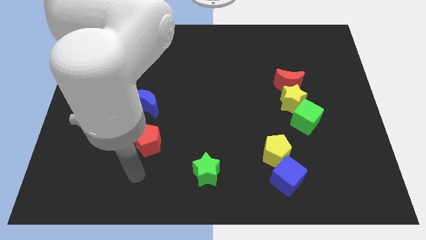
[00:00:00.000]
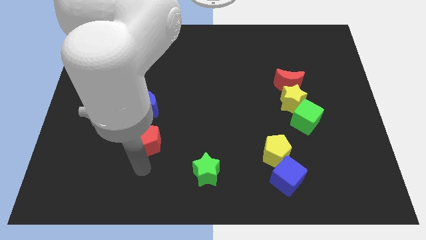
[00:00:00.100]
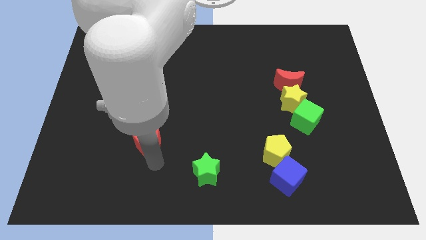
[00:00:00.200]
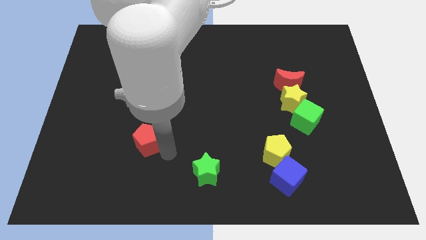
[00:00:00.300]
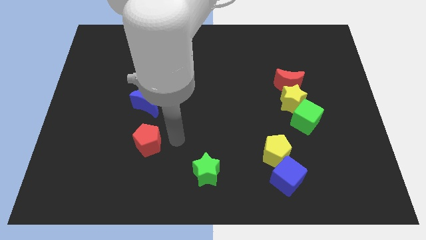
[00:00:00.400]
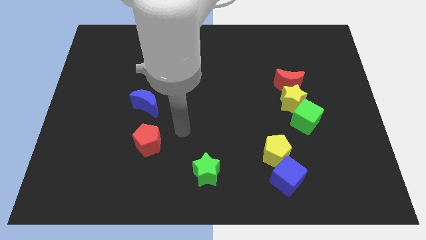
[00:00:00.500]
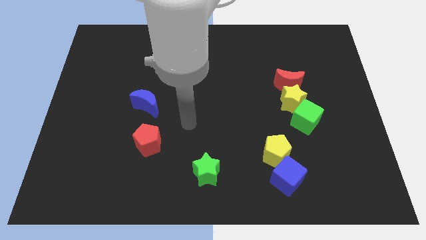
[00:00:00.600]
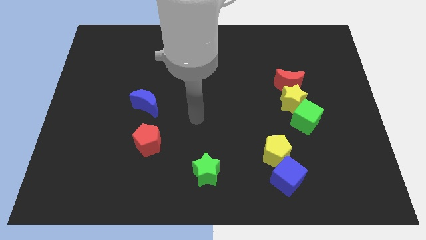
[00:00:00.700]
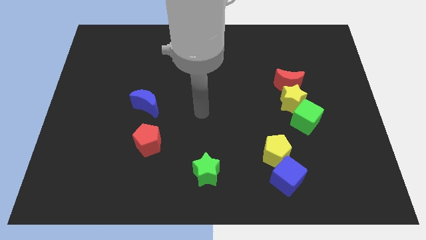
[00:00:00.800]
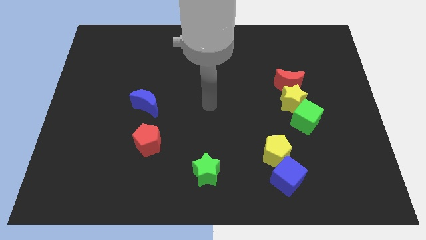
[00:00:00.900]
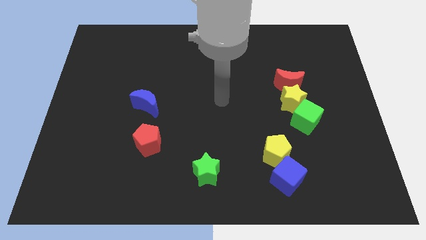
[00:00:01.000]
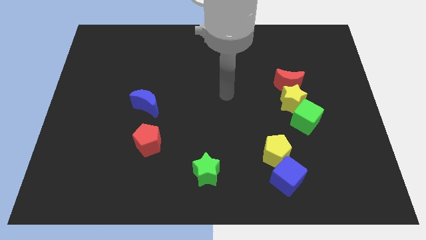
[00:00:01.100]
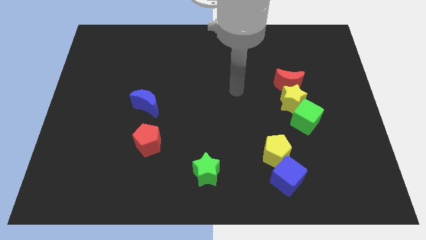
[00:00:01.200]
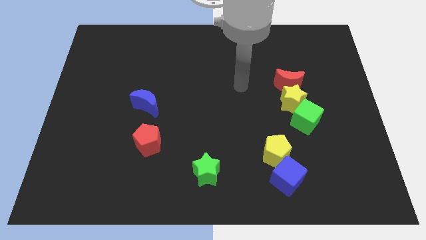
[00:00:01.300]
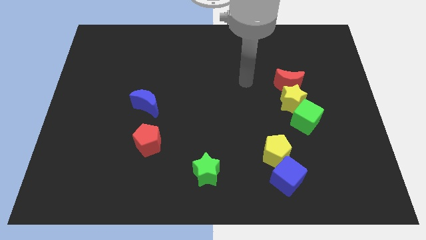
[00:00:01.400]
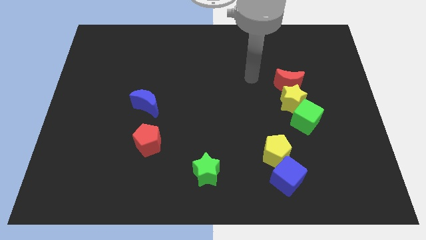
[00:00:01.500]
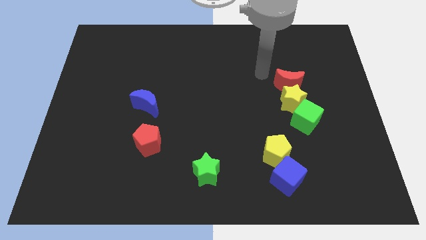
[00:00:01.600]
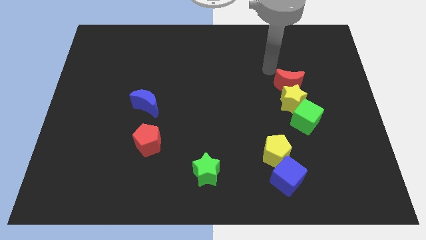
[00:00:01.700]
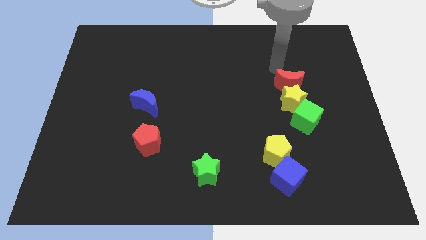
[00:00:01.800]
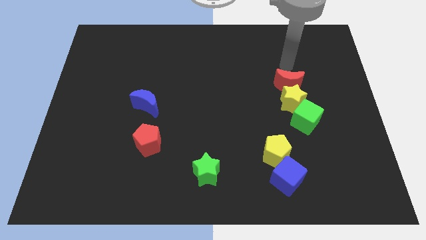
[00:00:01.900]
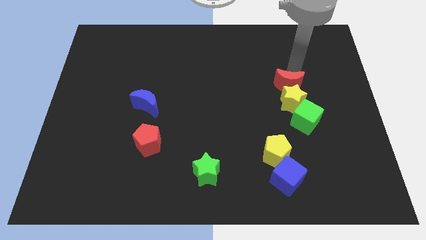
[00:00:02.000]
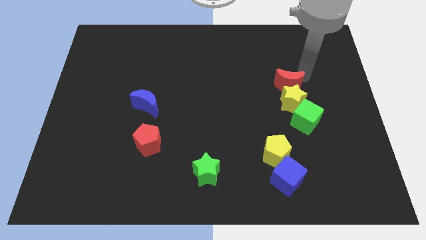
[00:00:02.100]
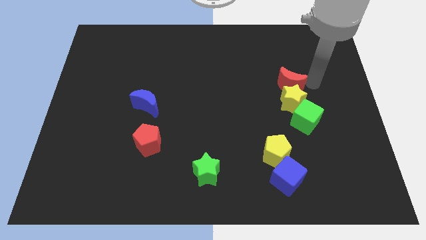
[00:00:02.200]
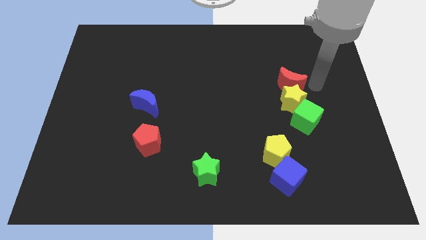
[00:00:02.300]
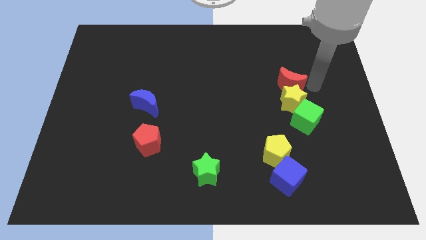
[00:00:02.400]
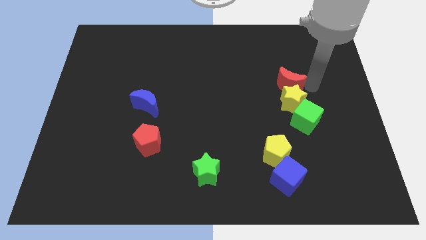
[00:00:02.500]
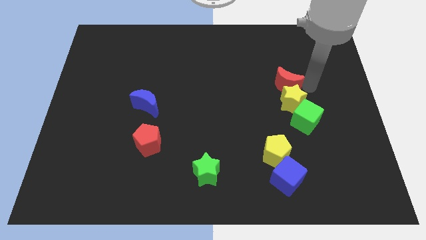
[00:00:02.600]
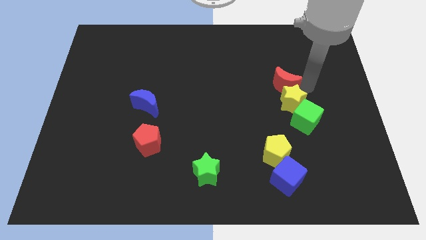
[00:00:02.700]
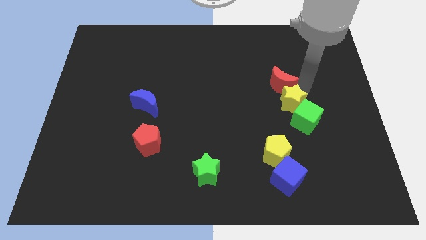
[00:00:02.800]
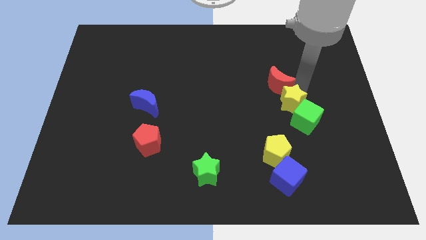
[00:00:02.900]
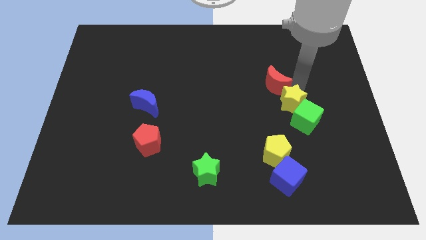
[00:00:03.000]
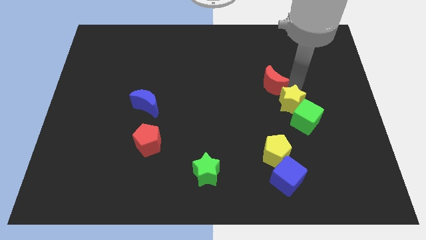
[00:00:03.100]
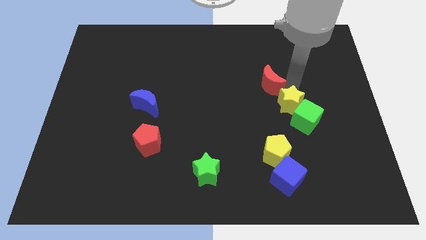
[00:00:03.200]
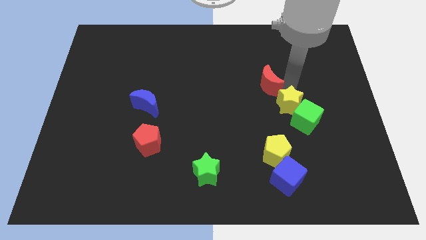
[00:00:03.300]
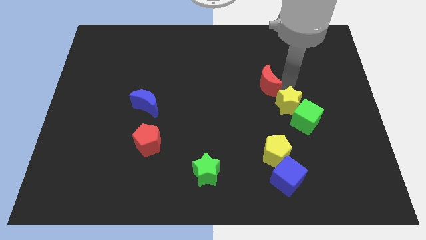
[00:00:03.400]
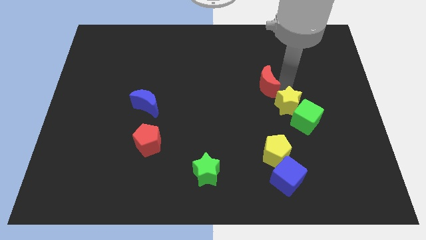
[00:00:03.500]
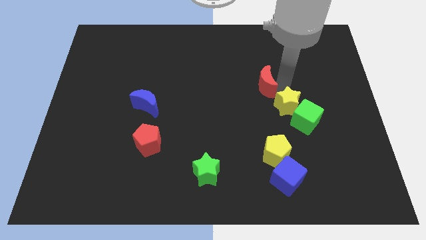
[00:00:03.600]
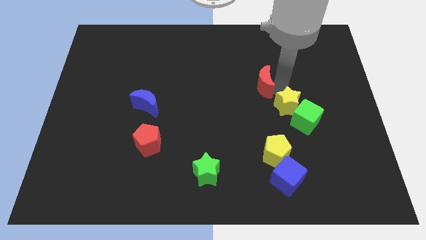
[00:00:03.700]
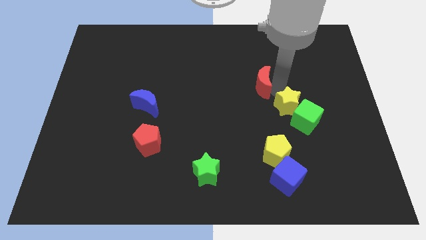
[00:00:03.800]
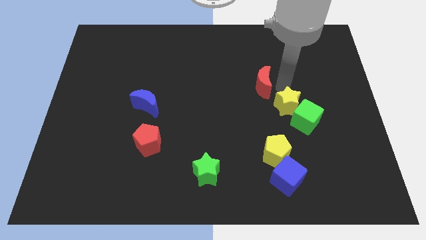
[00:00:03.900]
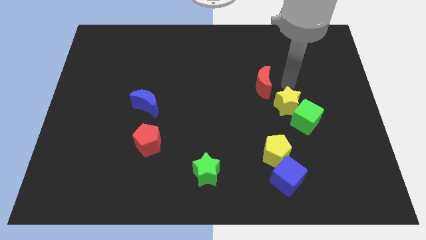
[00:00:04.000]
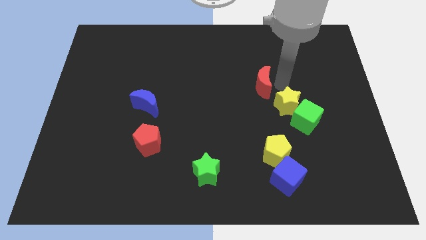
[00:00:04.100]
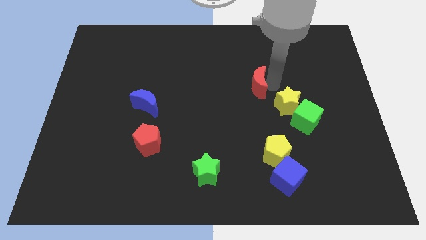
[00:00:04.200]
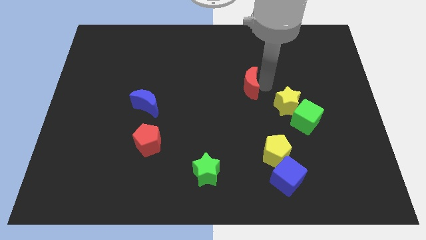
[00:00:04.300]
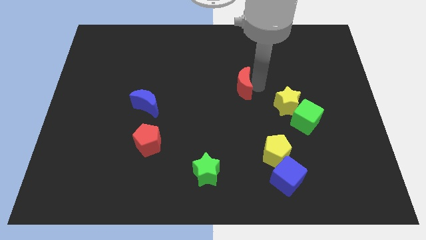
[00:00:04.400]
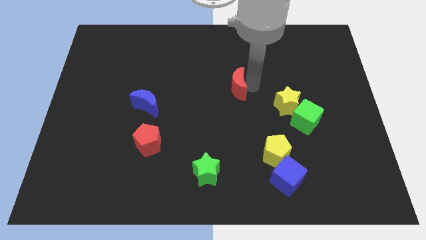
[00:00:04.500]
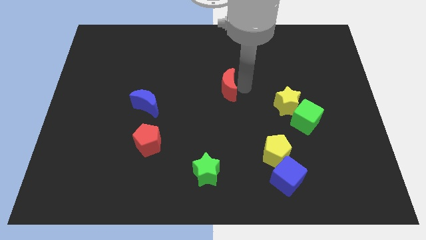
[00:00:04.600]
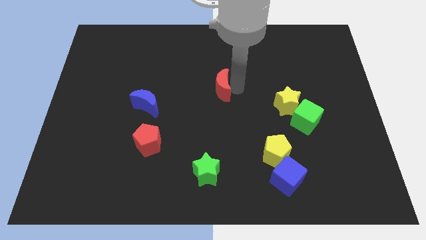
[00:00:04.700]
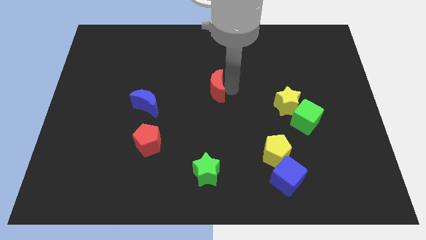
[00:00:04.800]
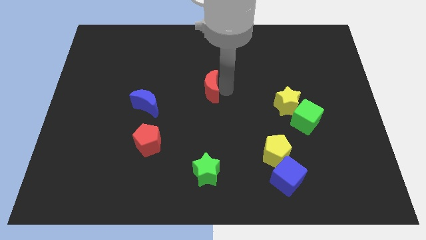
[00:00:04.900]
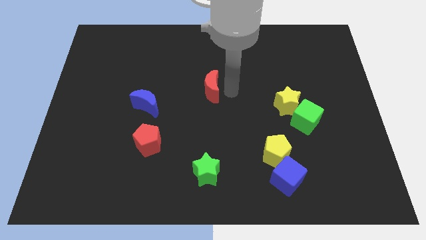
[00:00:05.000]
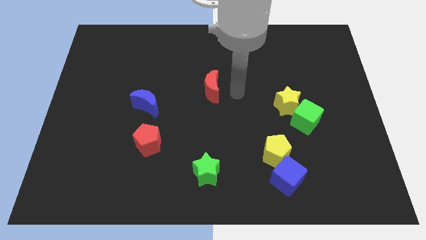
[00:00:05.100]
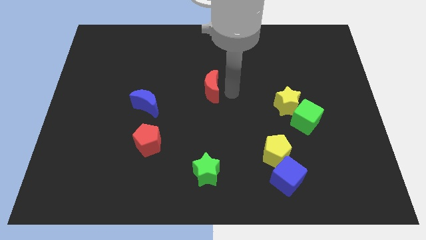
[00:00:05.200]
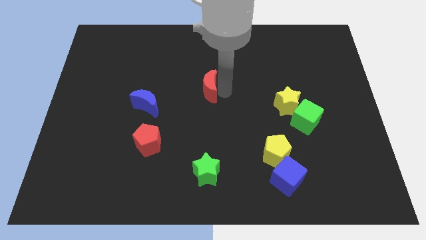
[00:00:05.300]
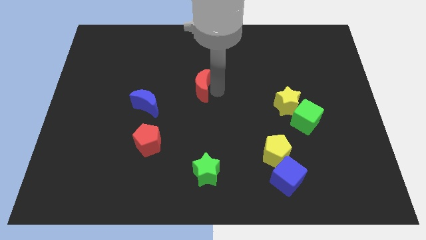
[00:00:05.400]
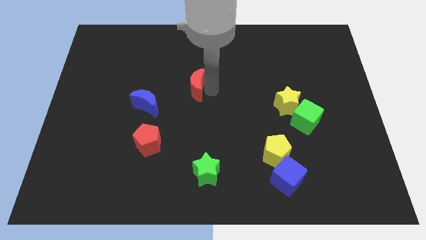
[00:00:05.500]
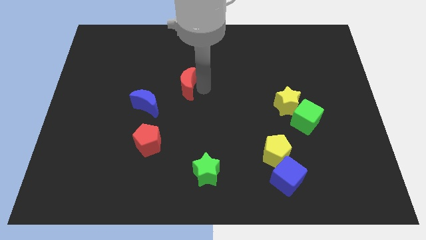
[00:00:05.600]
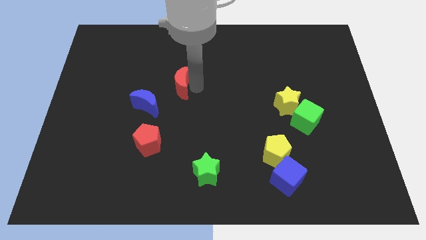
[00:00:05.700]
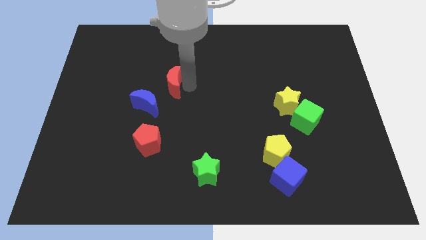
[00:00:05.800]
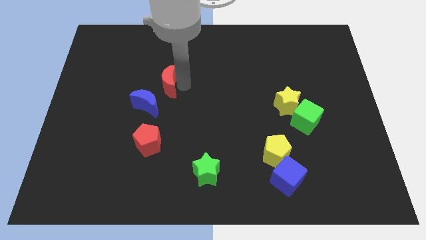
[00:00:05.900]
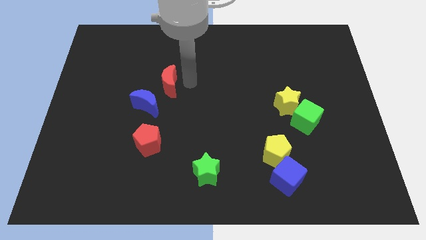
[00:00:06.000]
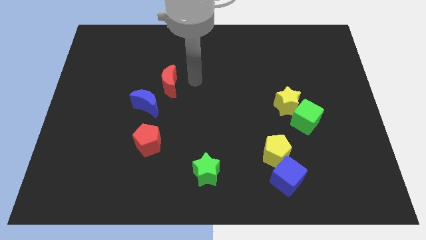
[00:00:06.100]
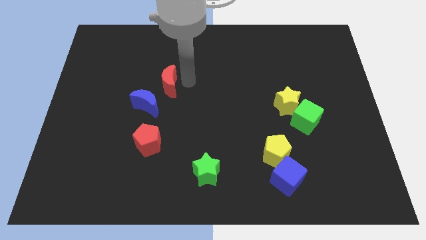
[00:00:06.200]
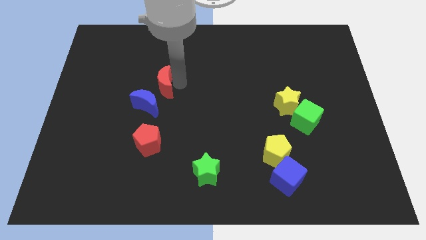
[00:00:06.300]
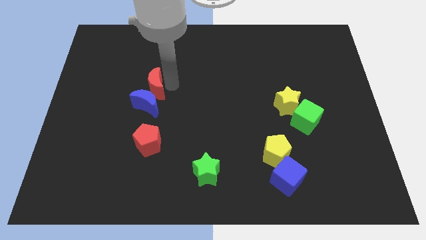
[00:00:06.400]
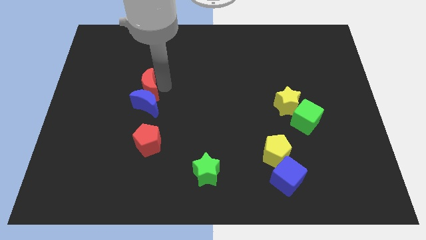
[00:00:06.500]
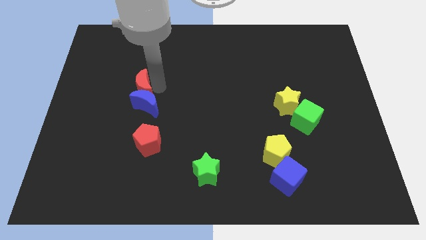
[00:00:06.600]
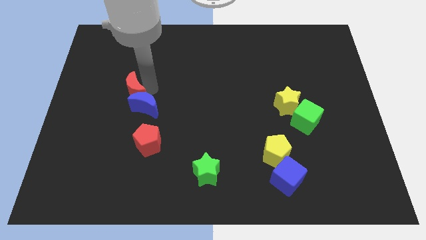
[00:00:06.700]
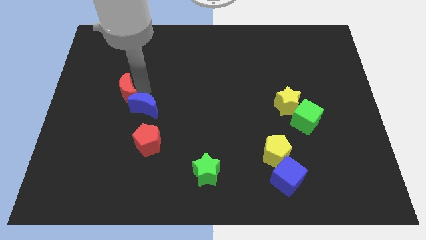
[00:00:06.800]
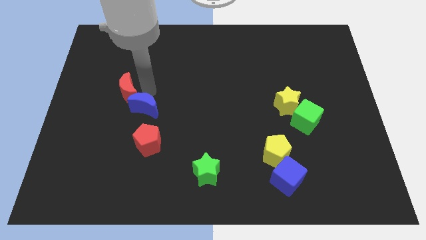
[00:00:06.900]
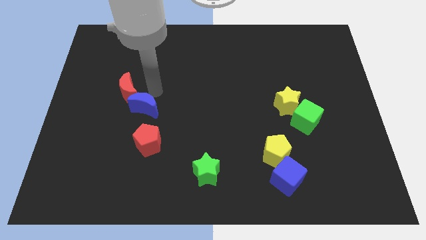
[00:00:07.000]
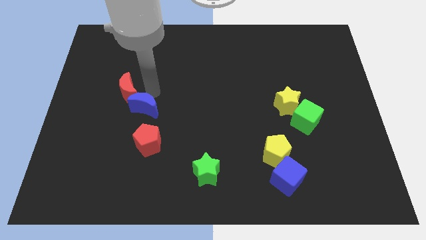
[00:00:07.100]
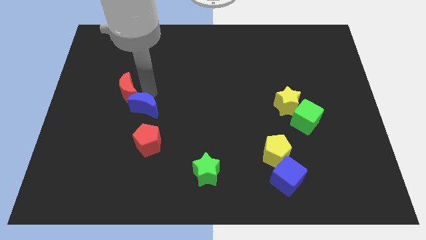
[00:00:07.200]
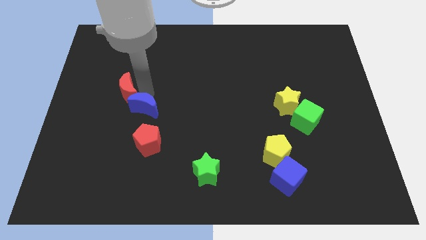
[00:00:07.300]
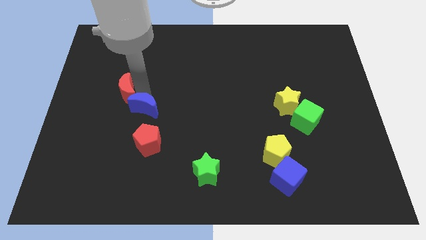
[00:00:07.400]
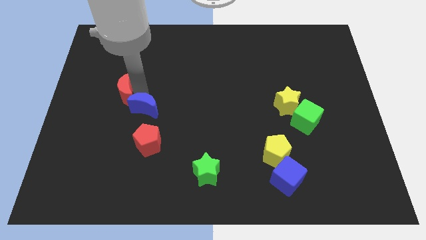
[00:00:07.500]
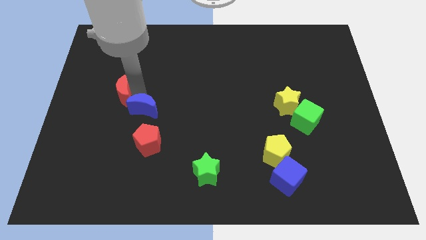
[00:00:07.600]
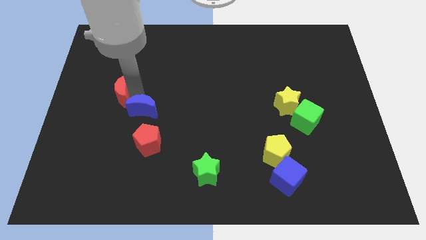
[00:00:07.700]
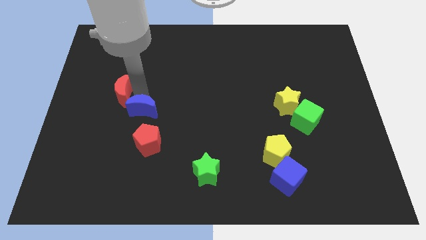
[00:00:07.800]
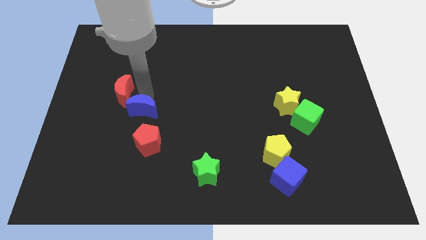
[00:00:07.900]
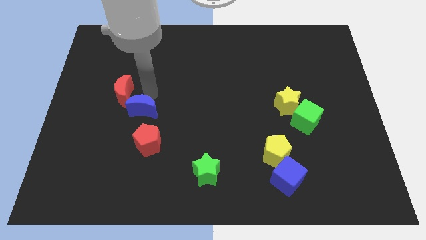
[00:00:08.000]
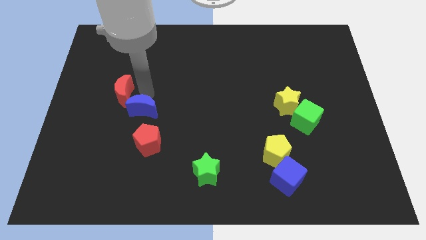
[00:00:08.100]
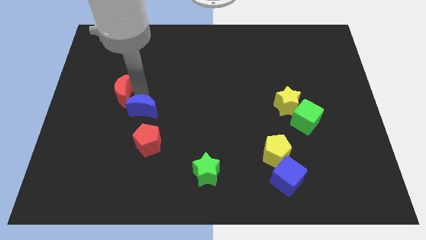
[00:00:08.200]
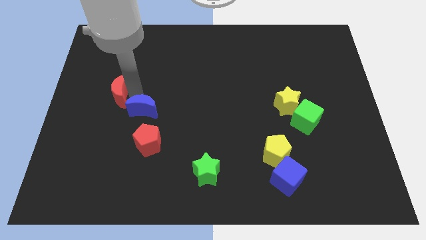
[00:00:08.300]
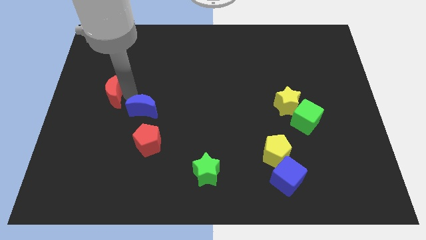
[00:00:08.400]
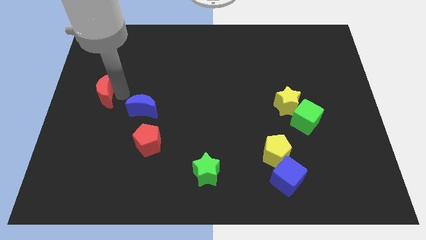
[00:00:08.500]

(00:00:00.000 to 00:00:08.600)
slide the red moon to the center left
